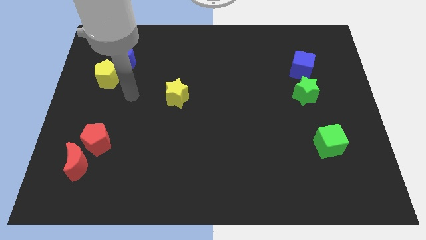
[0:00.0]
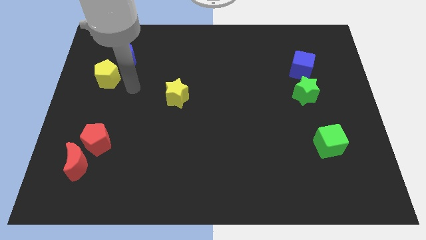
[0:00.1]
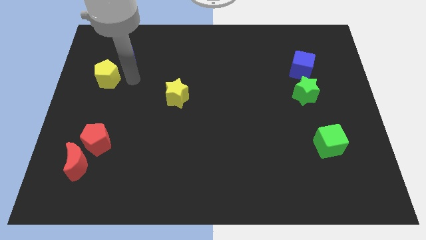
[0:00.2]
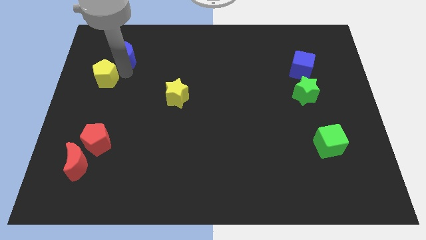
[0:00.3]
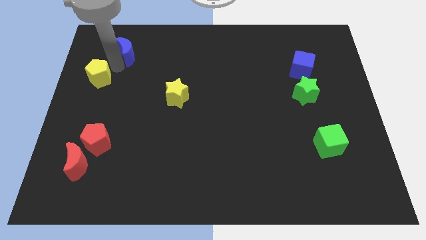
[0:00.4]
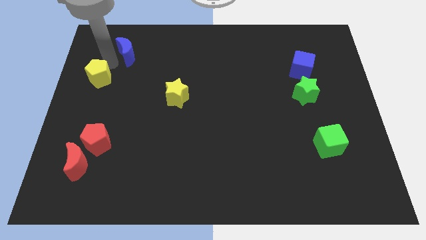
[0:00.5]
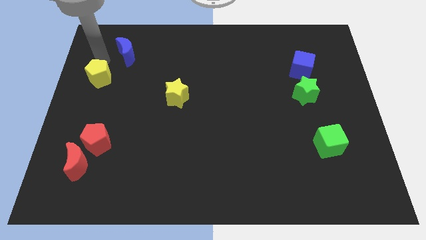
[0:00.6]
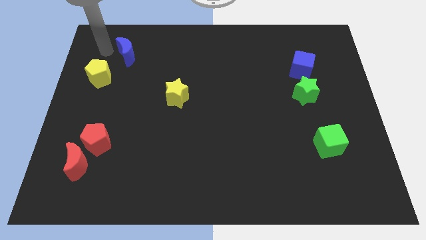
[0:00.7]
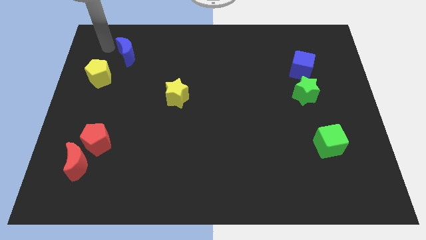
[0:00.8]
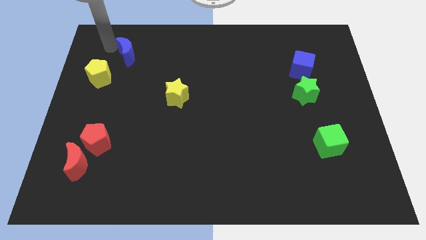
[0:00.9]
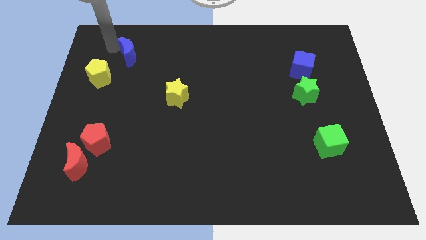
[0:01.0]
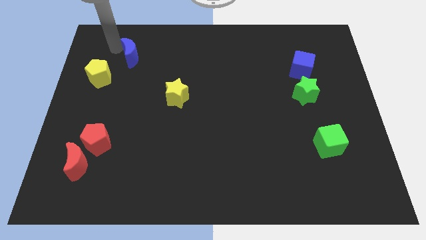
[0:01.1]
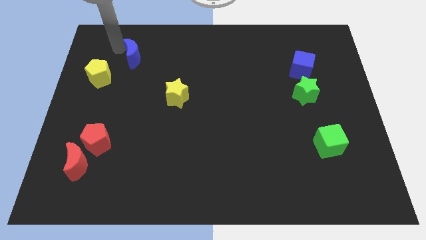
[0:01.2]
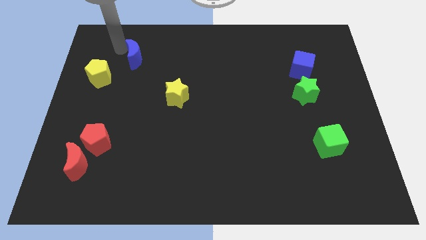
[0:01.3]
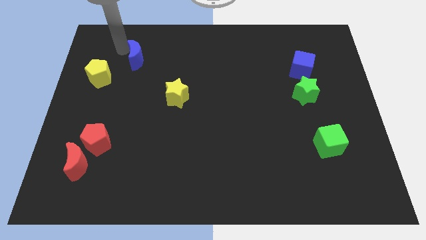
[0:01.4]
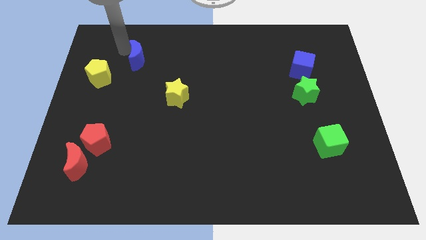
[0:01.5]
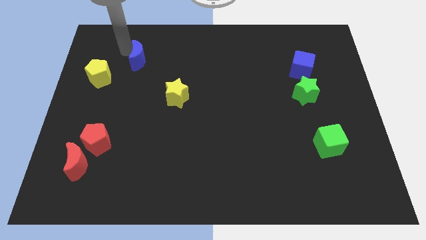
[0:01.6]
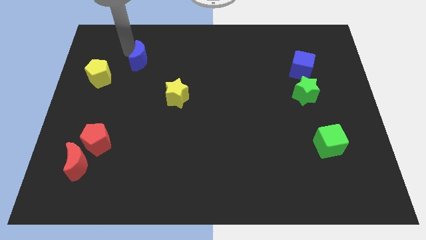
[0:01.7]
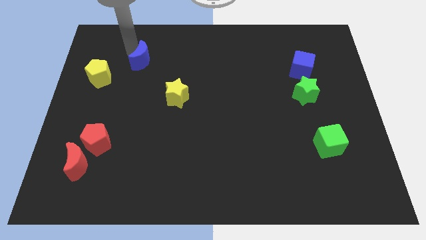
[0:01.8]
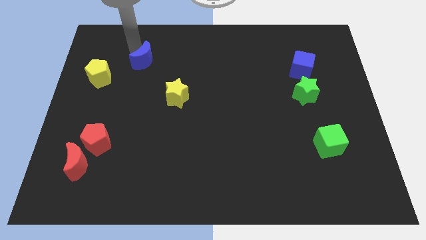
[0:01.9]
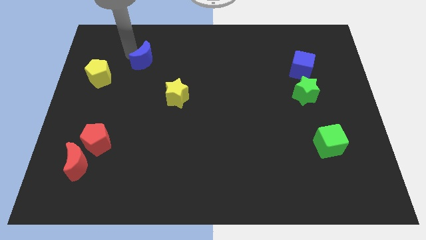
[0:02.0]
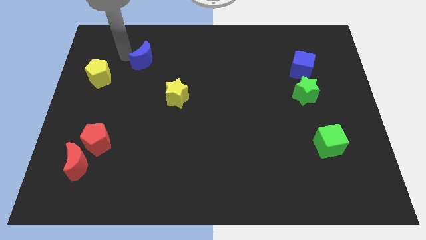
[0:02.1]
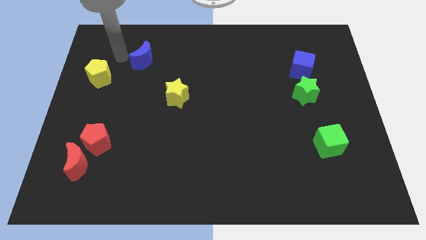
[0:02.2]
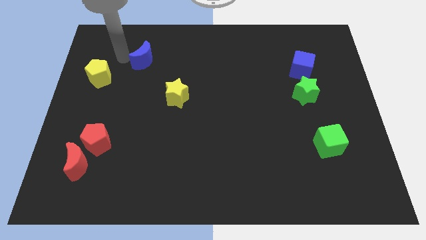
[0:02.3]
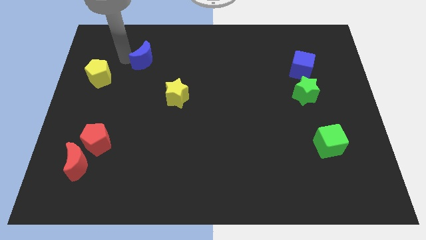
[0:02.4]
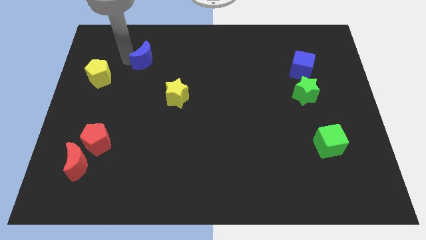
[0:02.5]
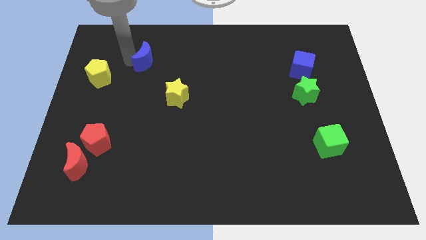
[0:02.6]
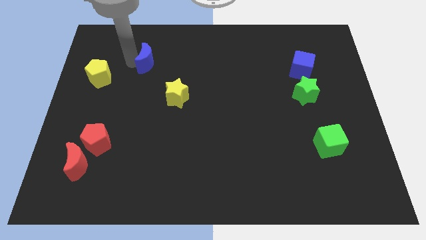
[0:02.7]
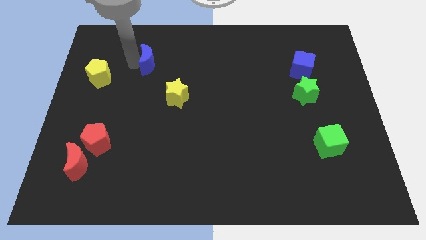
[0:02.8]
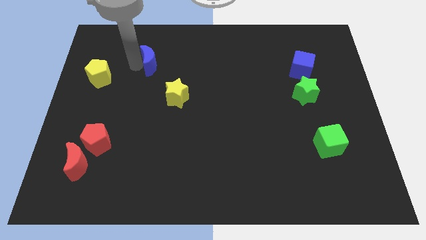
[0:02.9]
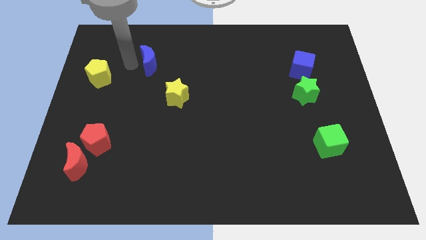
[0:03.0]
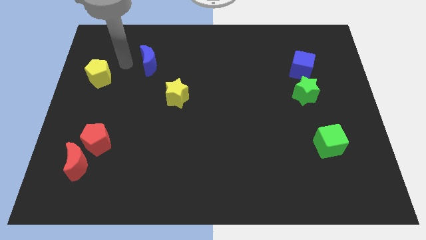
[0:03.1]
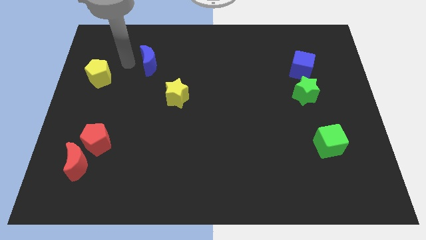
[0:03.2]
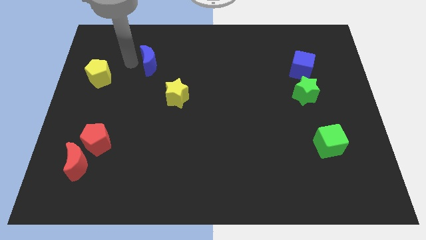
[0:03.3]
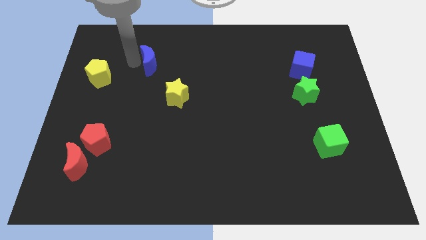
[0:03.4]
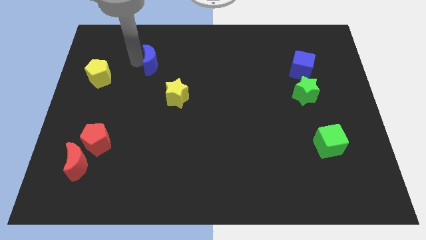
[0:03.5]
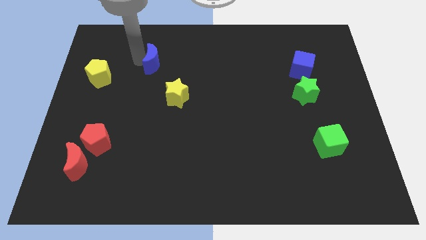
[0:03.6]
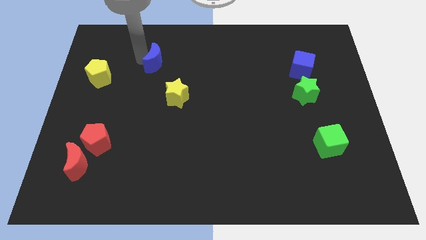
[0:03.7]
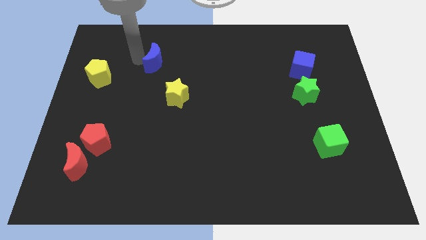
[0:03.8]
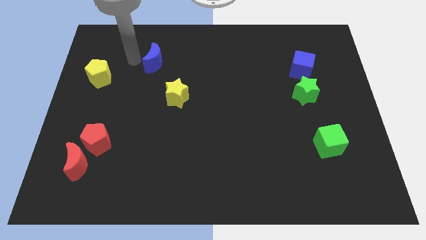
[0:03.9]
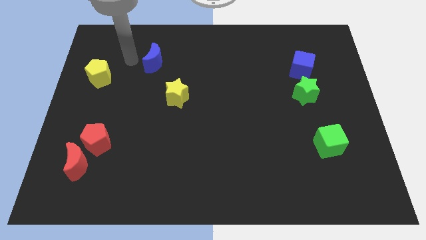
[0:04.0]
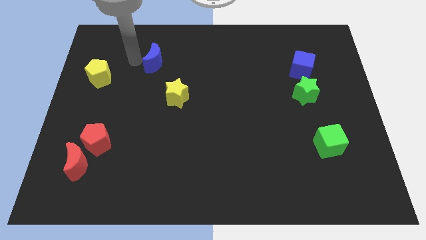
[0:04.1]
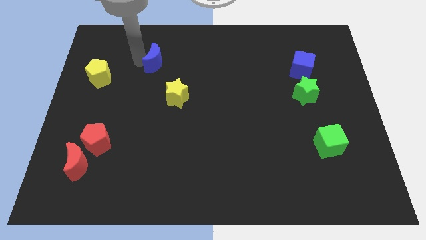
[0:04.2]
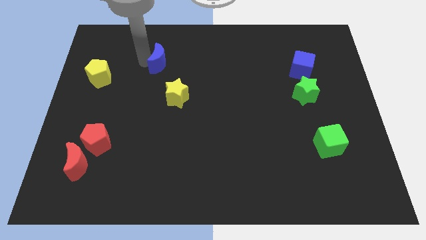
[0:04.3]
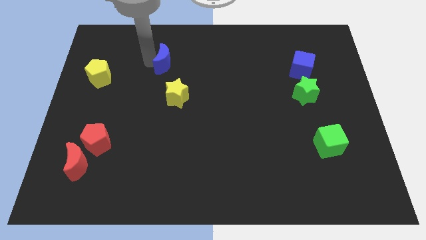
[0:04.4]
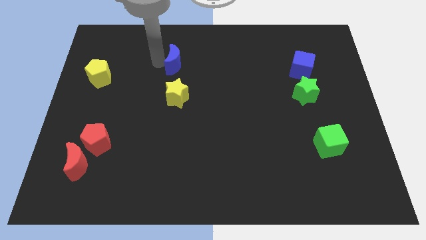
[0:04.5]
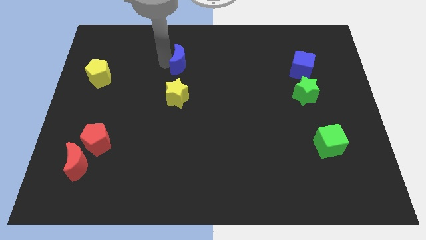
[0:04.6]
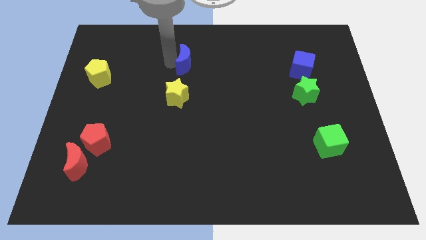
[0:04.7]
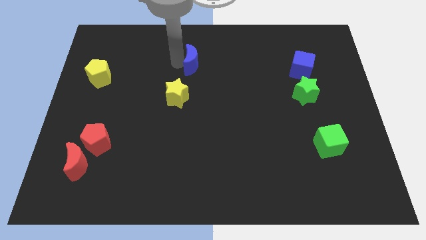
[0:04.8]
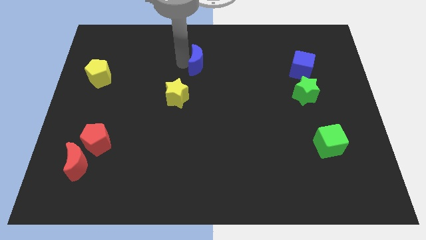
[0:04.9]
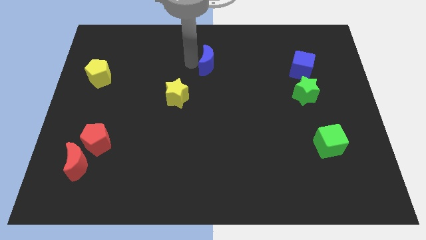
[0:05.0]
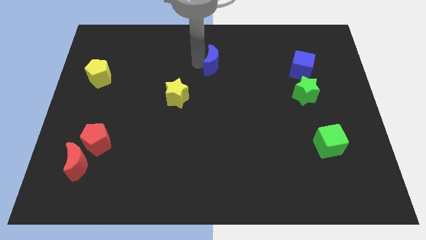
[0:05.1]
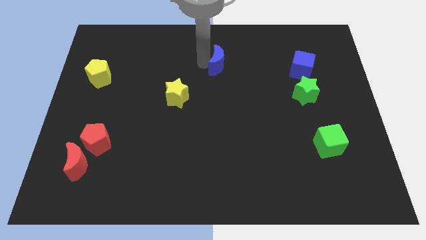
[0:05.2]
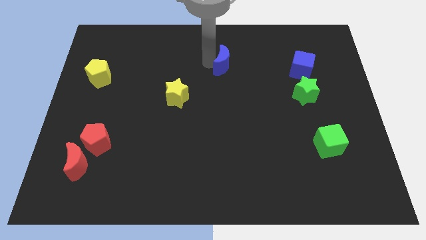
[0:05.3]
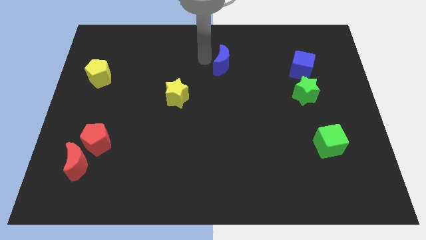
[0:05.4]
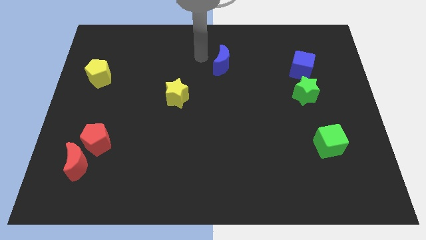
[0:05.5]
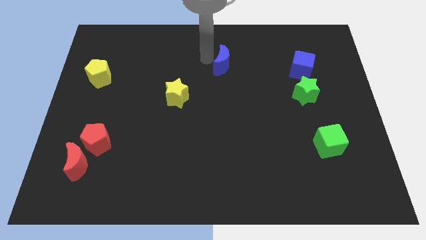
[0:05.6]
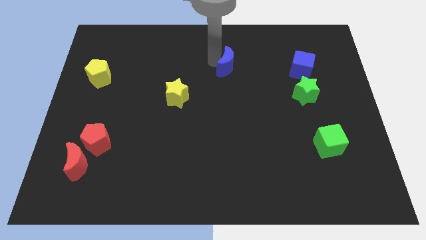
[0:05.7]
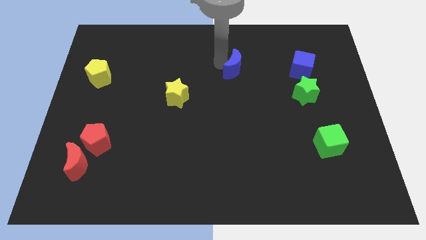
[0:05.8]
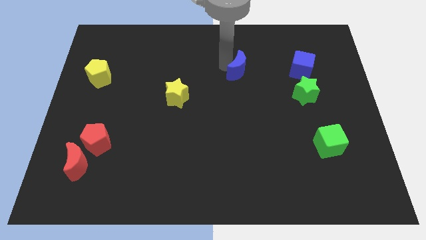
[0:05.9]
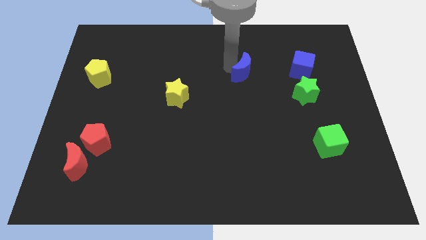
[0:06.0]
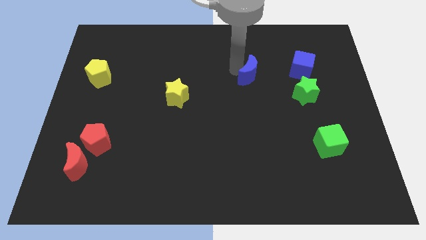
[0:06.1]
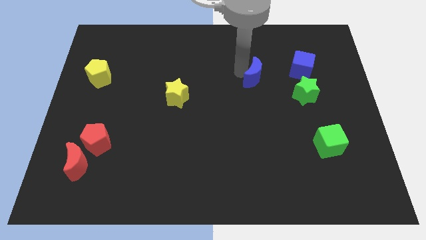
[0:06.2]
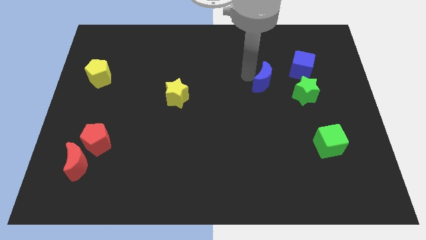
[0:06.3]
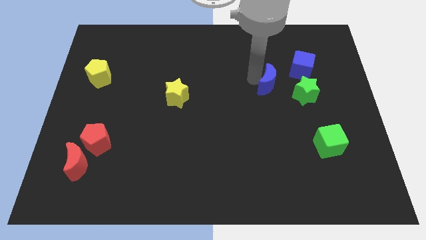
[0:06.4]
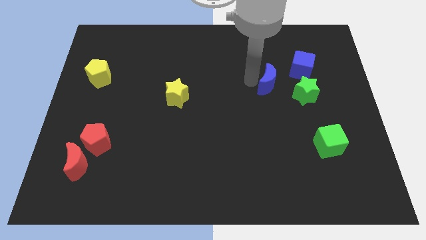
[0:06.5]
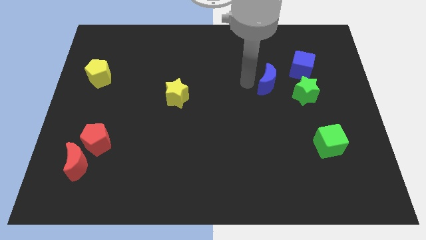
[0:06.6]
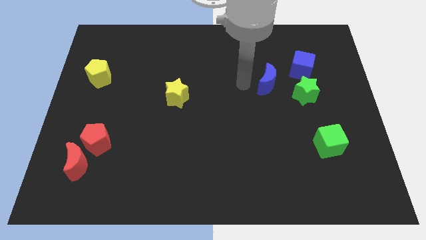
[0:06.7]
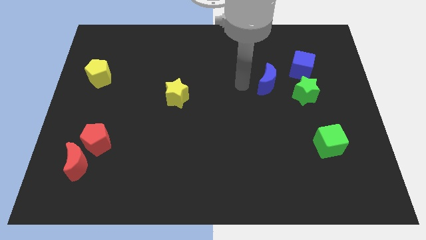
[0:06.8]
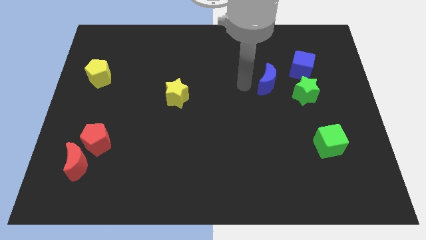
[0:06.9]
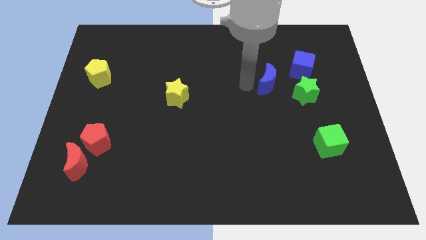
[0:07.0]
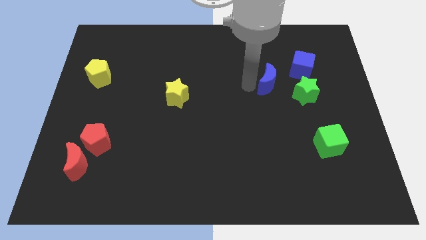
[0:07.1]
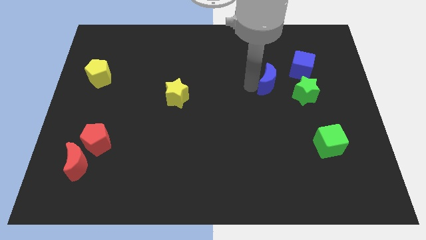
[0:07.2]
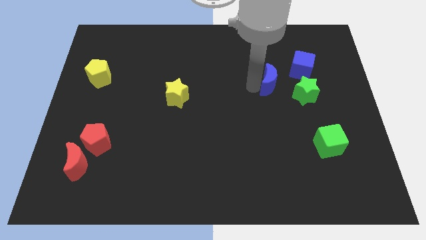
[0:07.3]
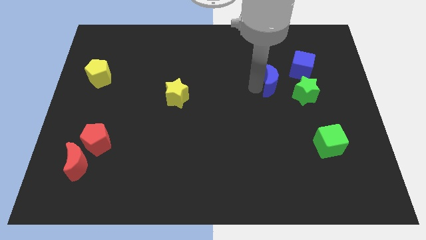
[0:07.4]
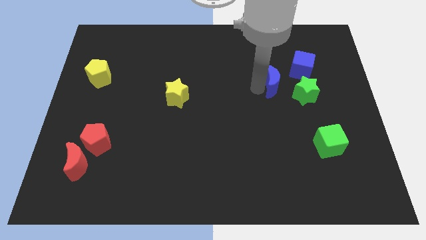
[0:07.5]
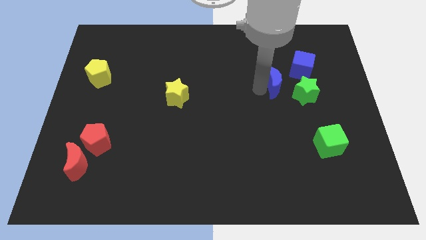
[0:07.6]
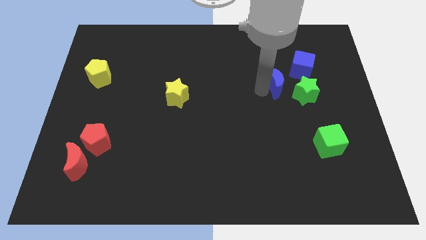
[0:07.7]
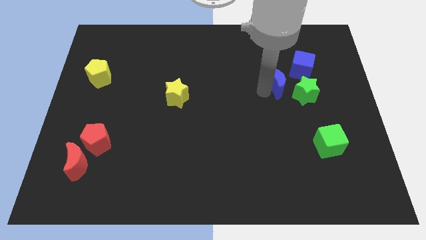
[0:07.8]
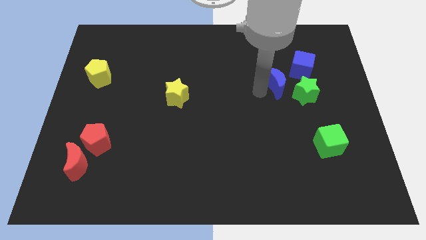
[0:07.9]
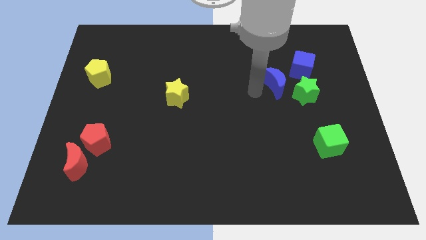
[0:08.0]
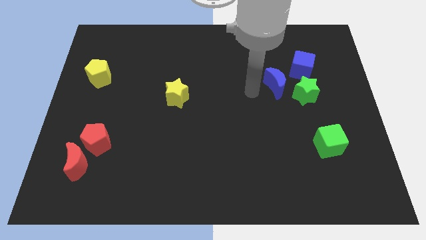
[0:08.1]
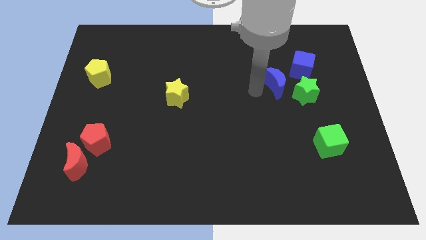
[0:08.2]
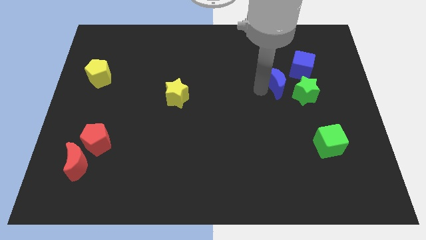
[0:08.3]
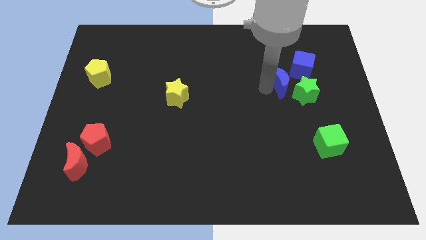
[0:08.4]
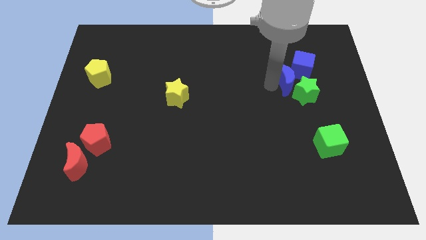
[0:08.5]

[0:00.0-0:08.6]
push the blue moon to the green star
